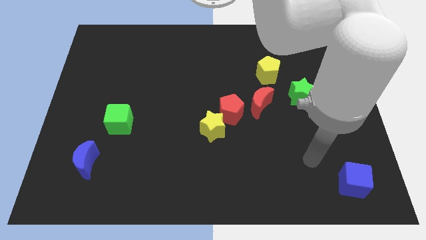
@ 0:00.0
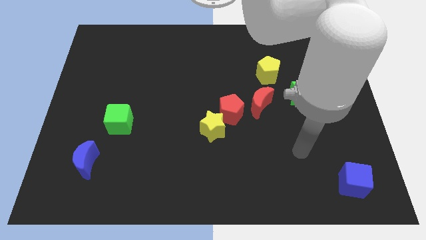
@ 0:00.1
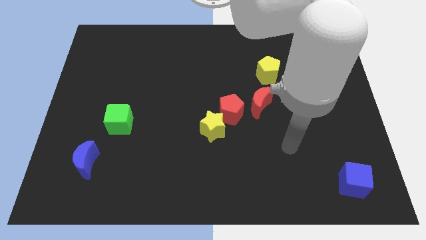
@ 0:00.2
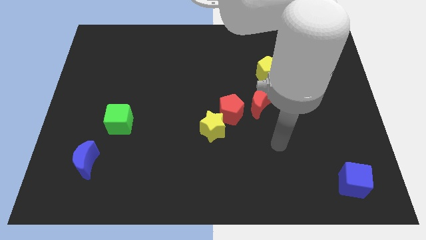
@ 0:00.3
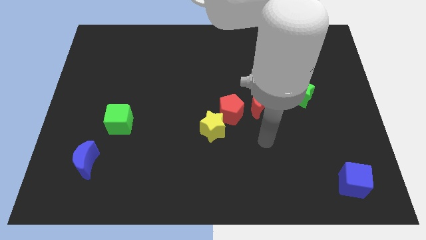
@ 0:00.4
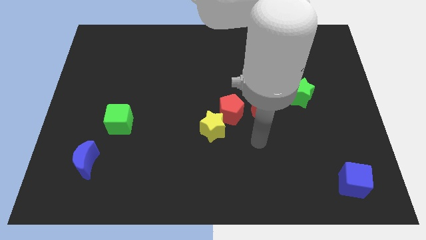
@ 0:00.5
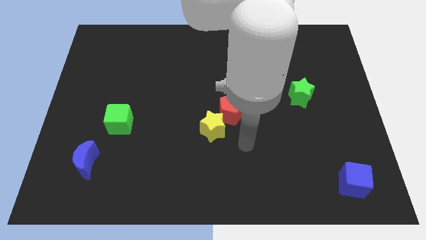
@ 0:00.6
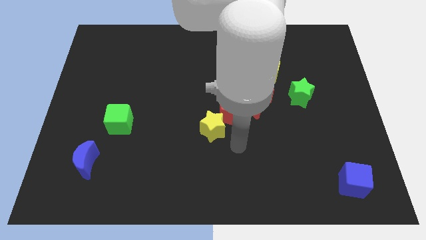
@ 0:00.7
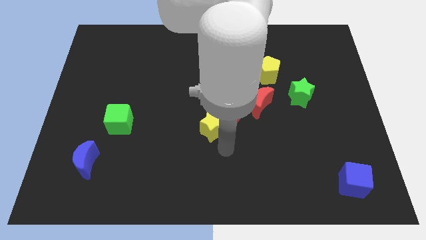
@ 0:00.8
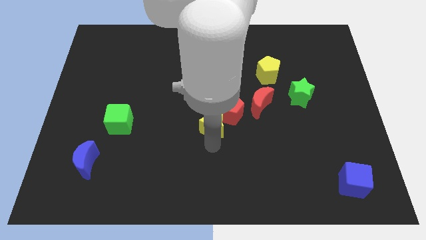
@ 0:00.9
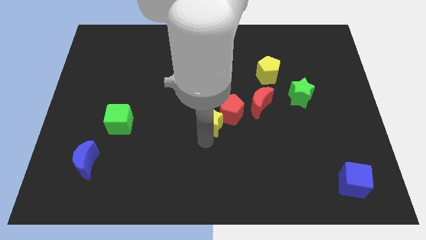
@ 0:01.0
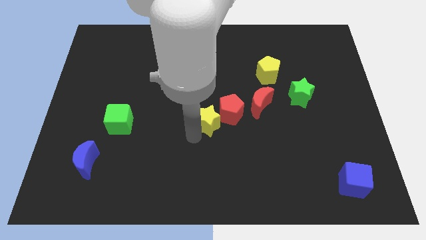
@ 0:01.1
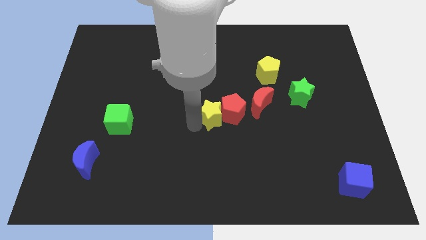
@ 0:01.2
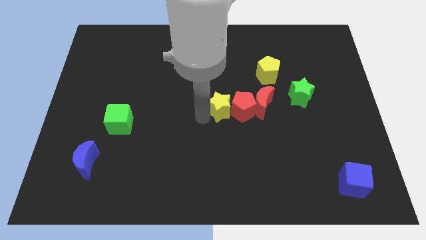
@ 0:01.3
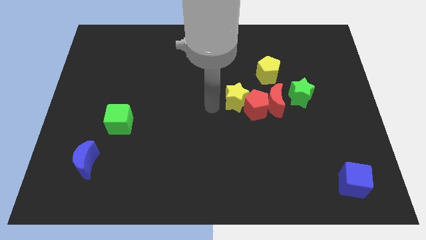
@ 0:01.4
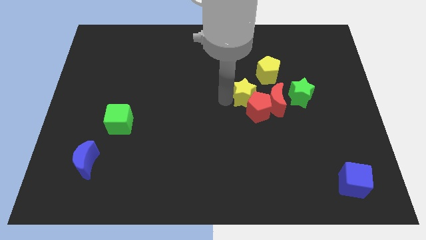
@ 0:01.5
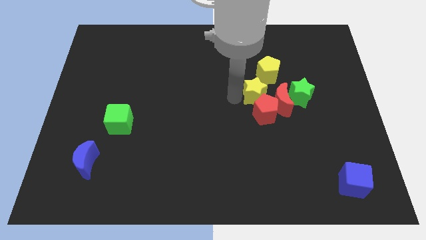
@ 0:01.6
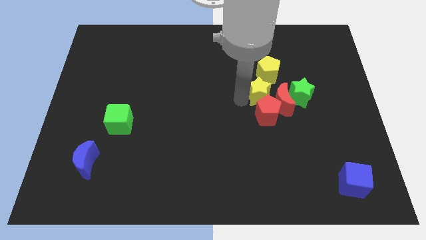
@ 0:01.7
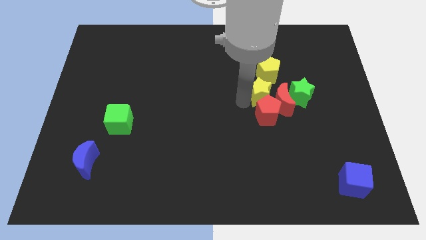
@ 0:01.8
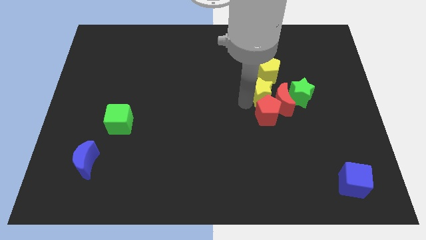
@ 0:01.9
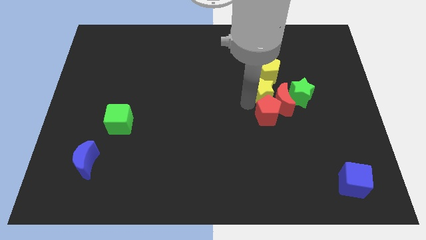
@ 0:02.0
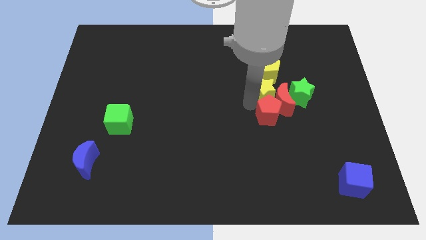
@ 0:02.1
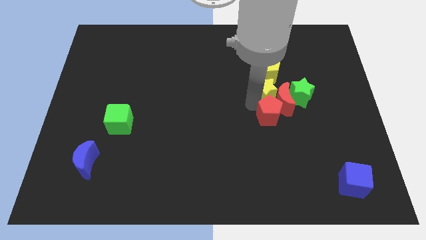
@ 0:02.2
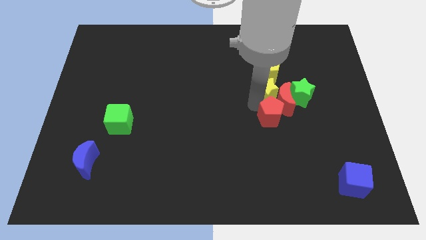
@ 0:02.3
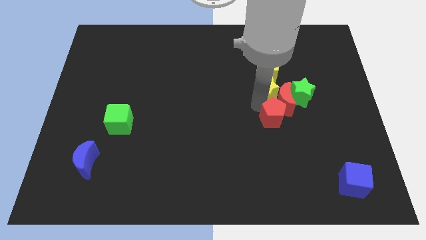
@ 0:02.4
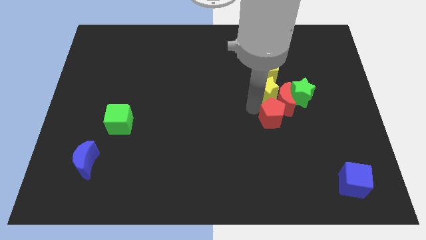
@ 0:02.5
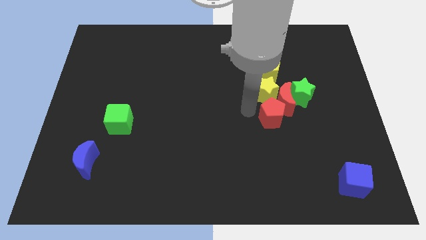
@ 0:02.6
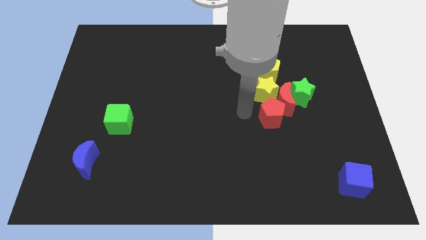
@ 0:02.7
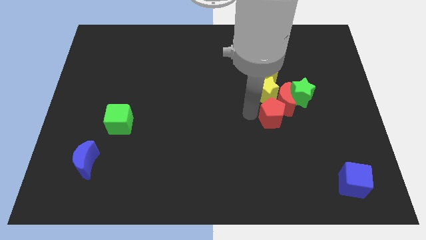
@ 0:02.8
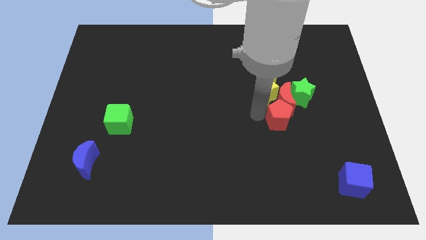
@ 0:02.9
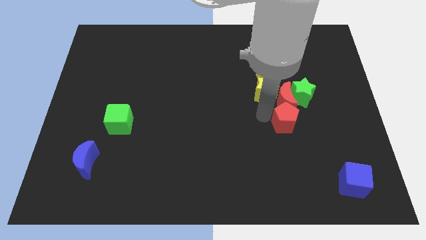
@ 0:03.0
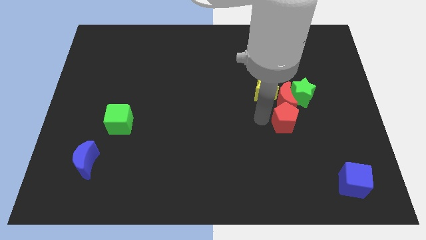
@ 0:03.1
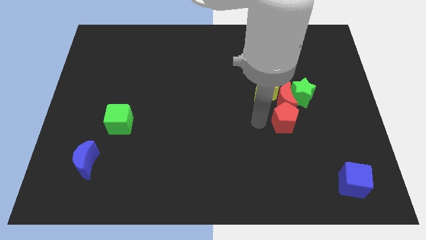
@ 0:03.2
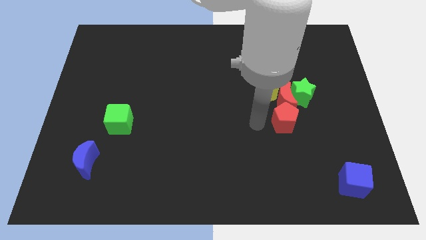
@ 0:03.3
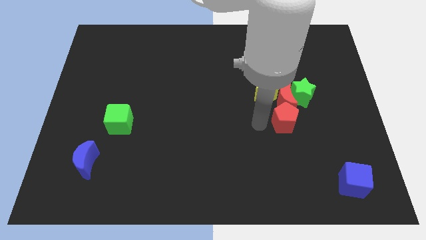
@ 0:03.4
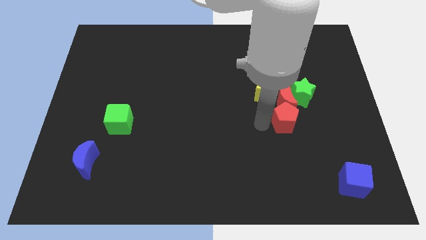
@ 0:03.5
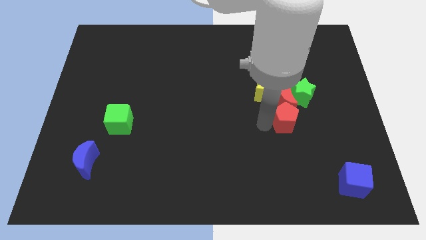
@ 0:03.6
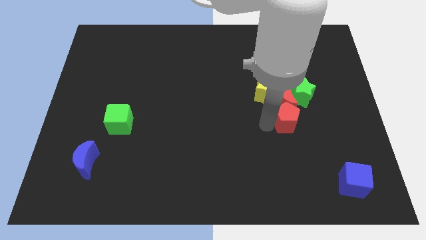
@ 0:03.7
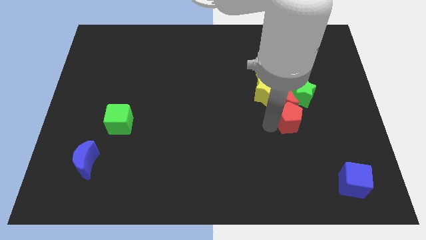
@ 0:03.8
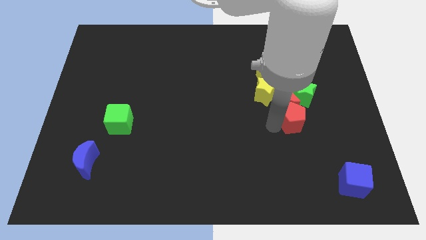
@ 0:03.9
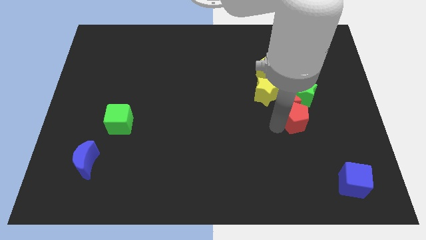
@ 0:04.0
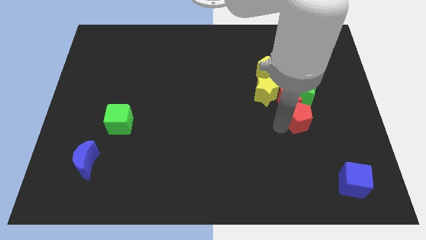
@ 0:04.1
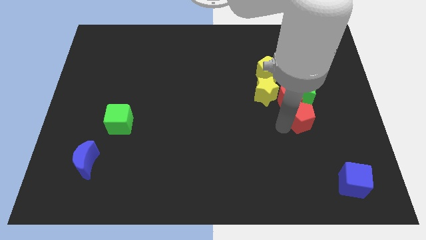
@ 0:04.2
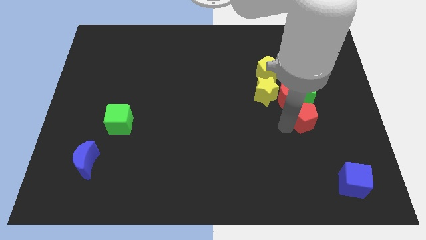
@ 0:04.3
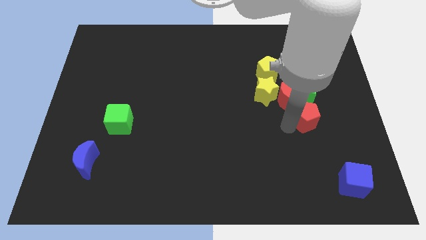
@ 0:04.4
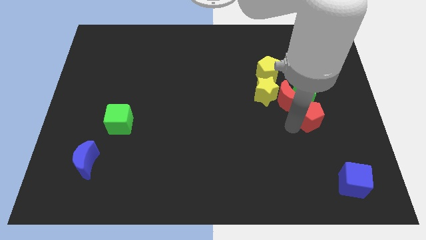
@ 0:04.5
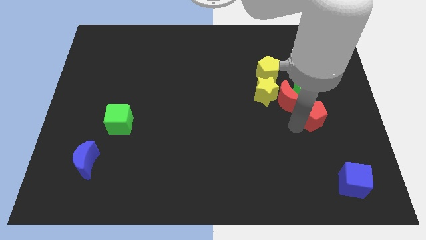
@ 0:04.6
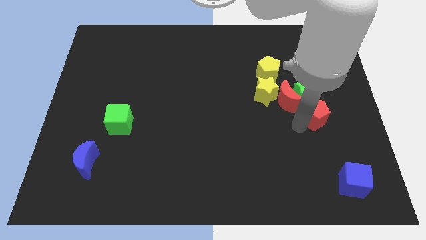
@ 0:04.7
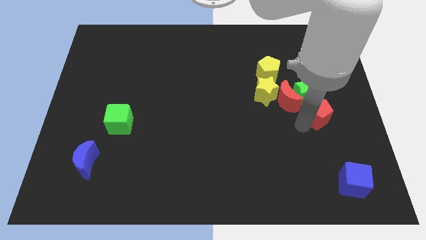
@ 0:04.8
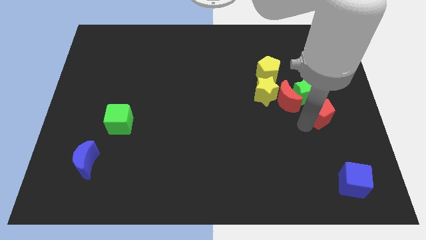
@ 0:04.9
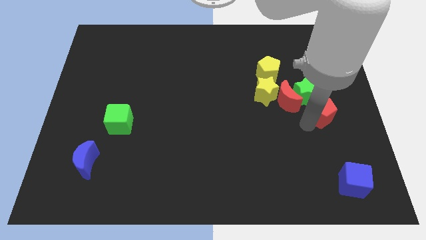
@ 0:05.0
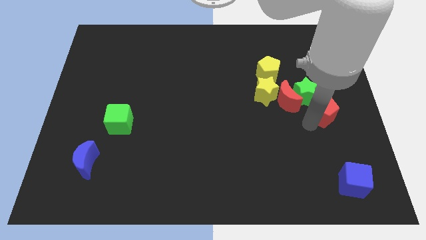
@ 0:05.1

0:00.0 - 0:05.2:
push the red pentagon to the right side of the board

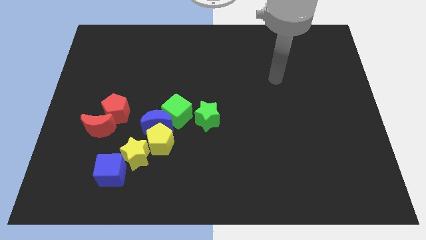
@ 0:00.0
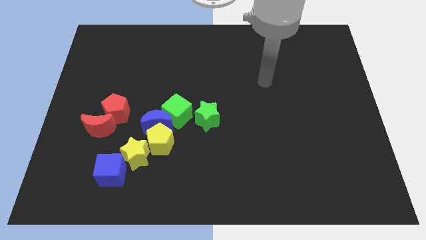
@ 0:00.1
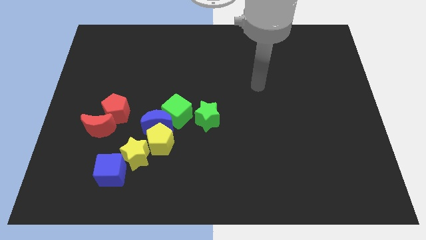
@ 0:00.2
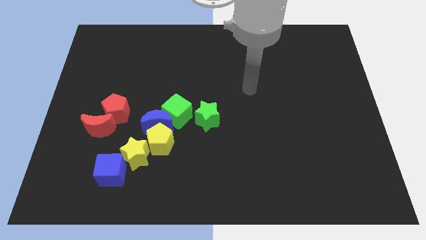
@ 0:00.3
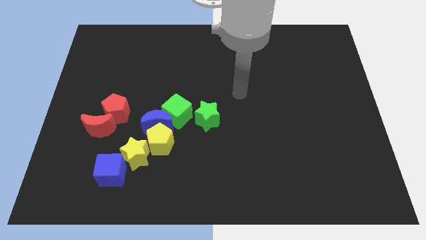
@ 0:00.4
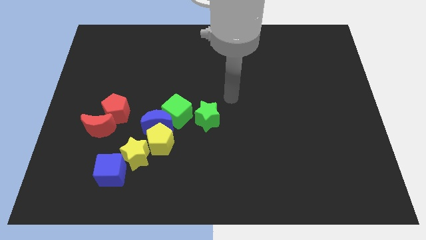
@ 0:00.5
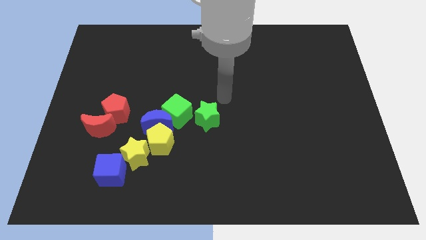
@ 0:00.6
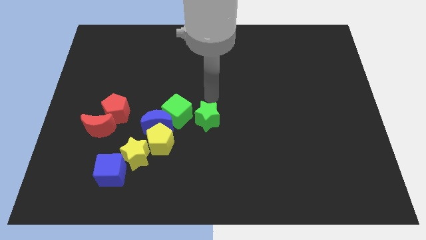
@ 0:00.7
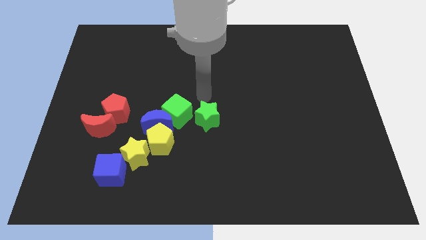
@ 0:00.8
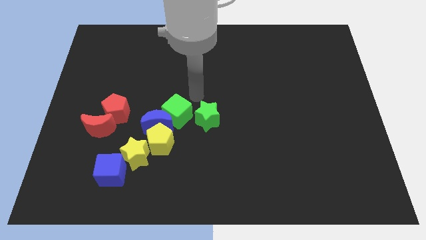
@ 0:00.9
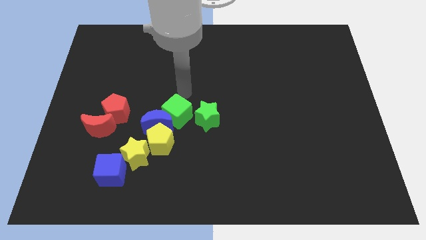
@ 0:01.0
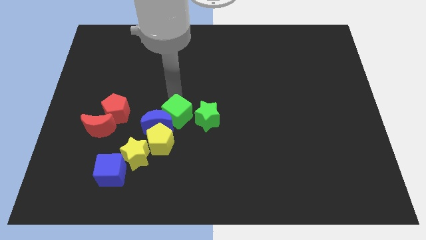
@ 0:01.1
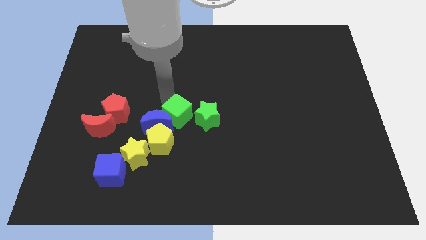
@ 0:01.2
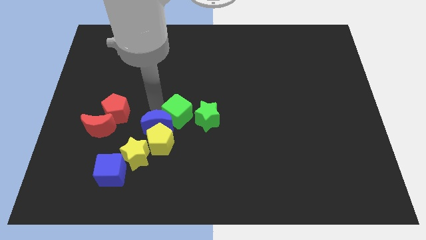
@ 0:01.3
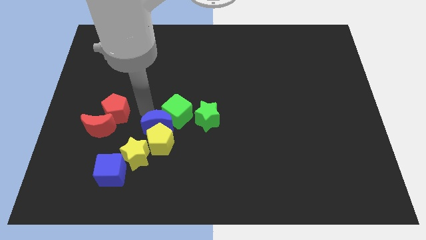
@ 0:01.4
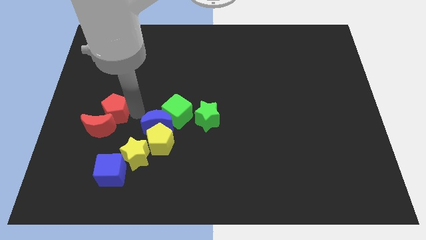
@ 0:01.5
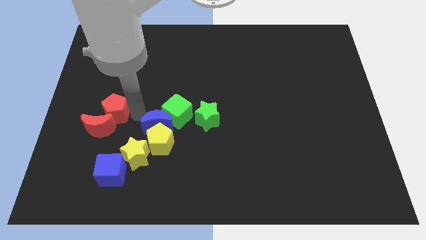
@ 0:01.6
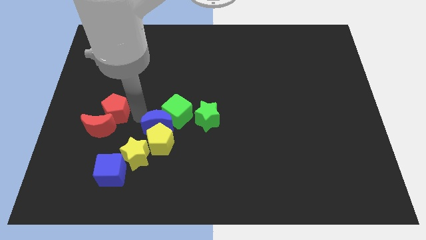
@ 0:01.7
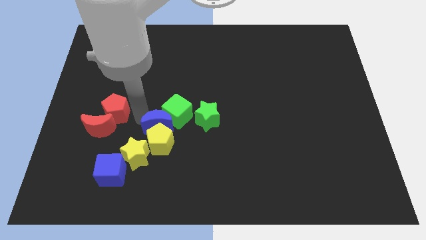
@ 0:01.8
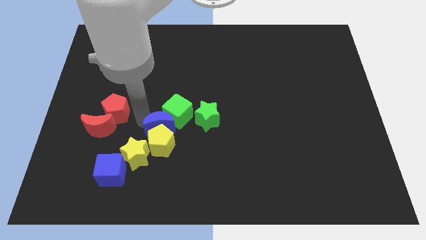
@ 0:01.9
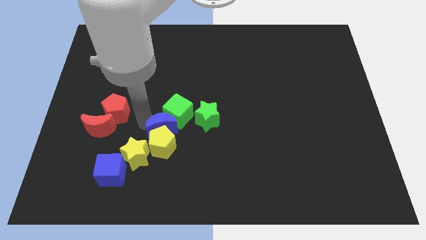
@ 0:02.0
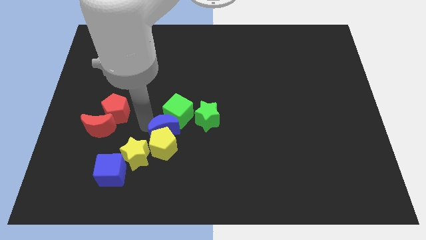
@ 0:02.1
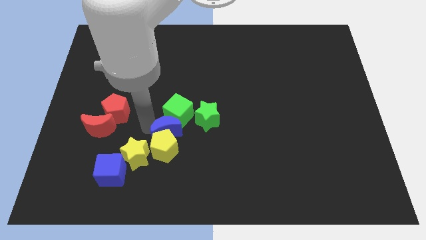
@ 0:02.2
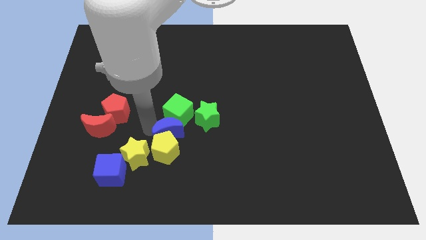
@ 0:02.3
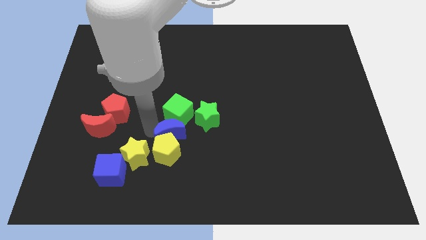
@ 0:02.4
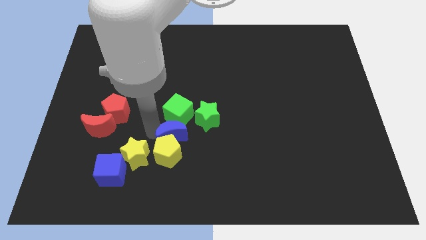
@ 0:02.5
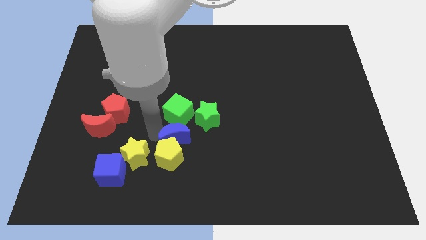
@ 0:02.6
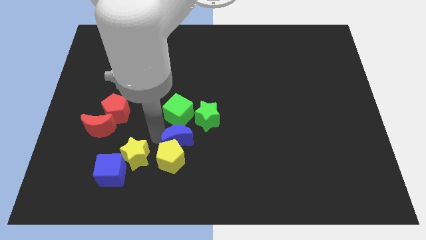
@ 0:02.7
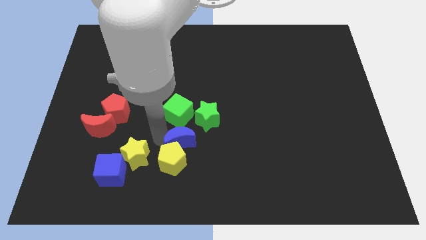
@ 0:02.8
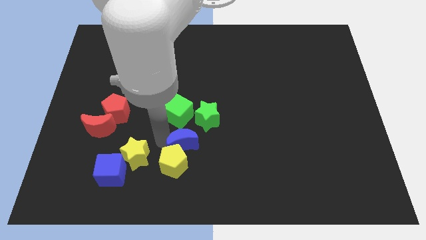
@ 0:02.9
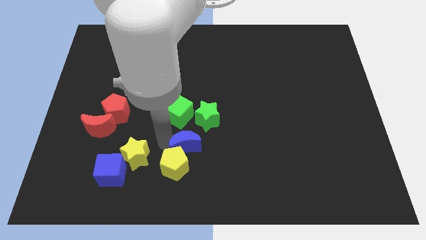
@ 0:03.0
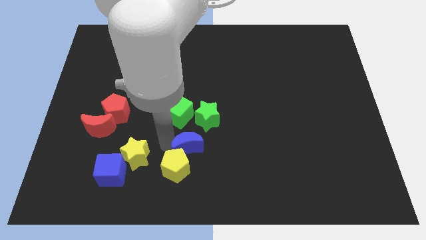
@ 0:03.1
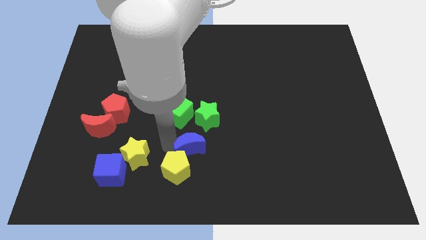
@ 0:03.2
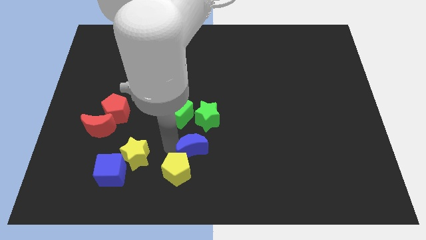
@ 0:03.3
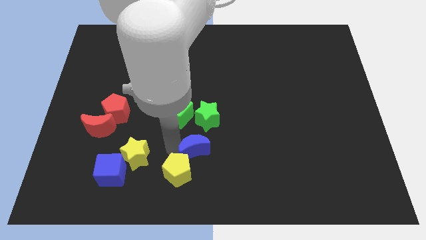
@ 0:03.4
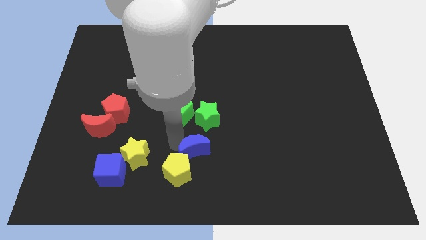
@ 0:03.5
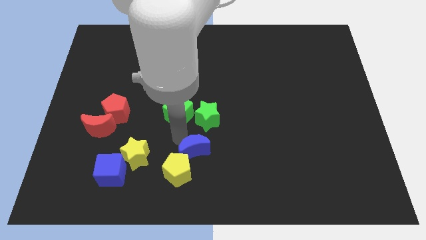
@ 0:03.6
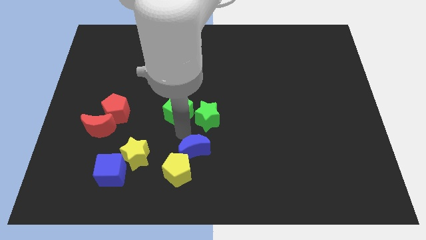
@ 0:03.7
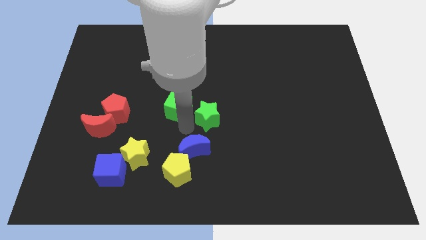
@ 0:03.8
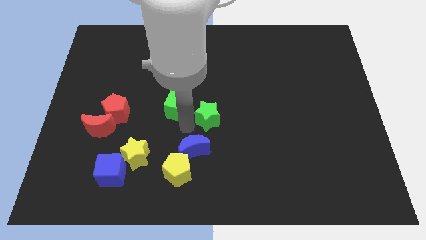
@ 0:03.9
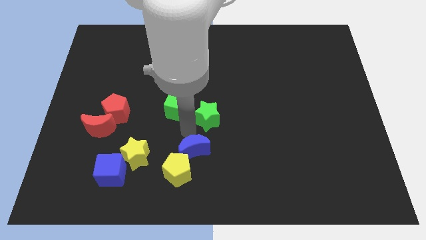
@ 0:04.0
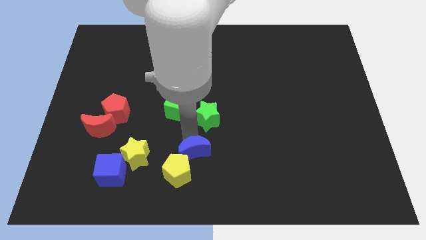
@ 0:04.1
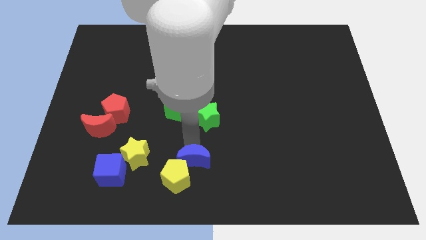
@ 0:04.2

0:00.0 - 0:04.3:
push the blue moon to the bottom side
